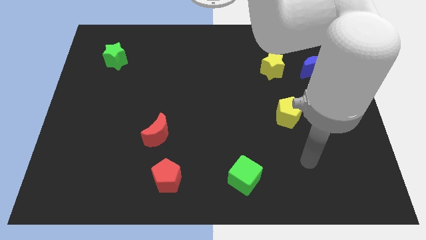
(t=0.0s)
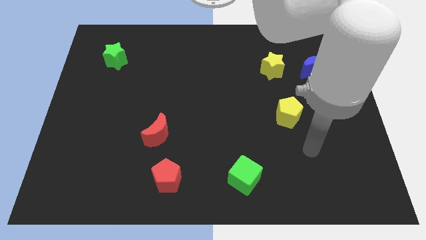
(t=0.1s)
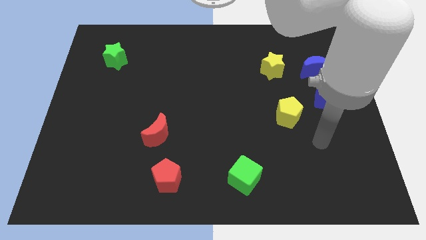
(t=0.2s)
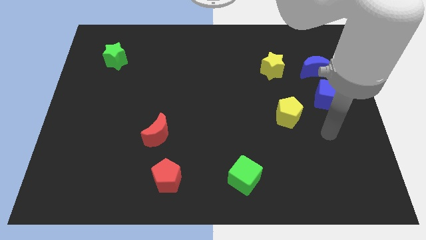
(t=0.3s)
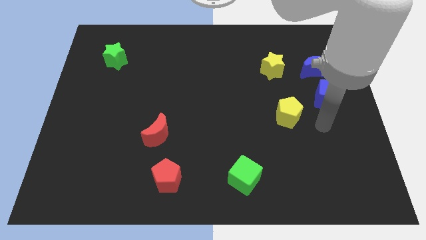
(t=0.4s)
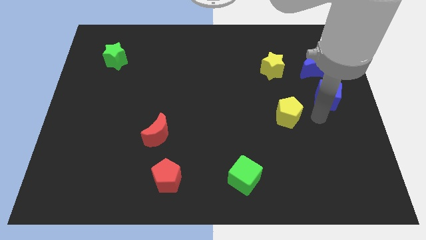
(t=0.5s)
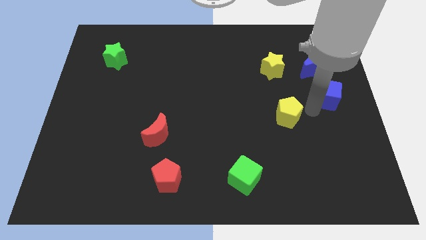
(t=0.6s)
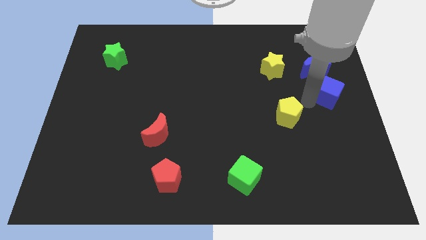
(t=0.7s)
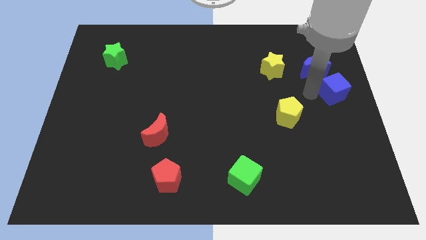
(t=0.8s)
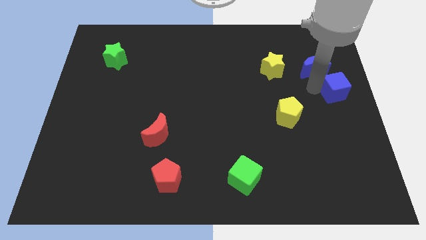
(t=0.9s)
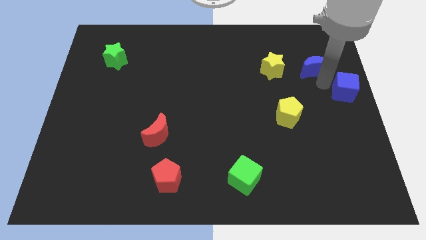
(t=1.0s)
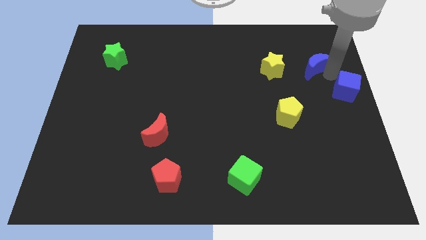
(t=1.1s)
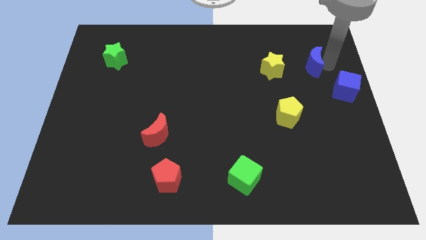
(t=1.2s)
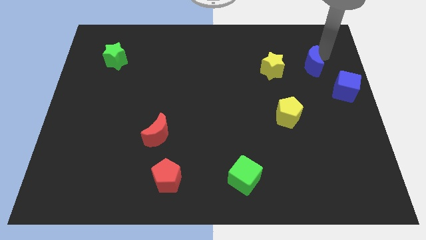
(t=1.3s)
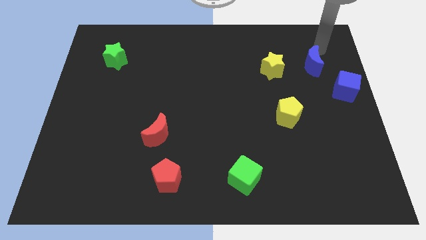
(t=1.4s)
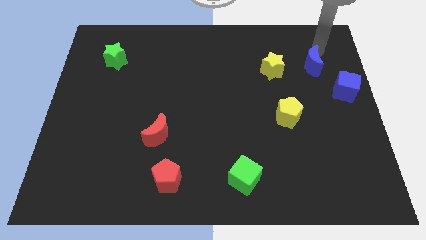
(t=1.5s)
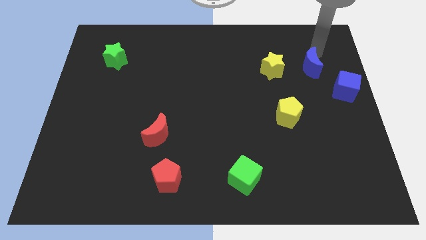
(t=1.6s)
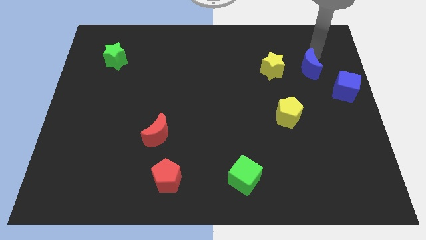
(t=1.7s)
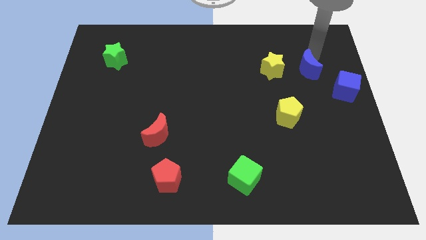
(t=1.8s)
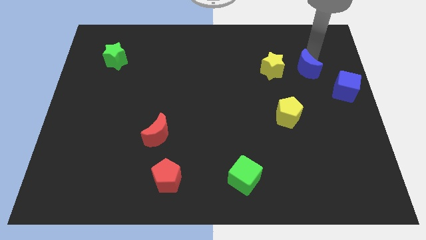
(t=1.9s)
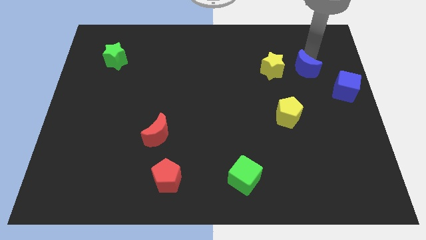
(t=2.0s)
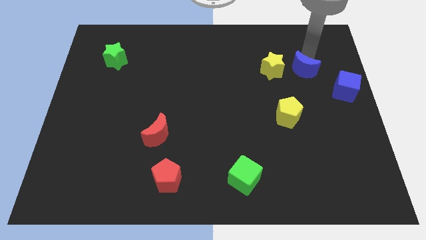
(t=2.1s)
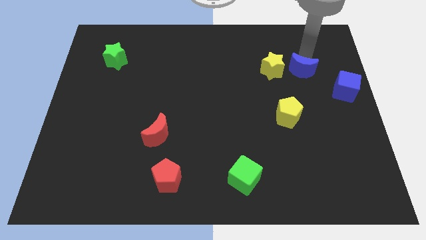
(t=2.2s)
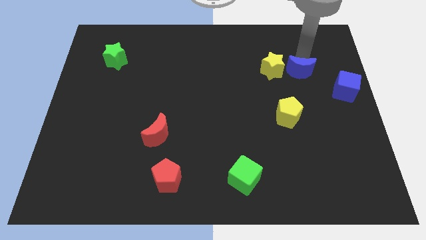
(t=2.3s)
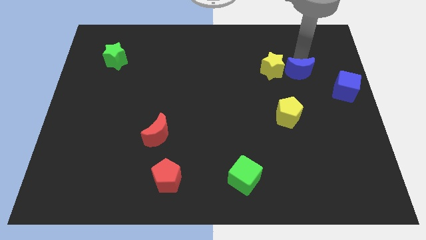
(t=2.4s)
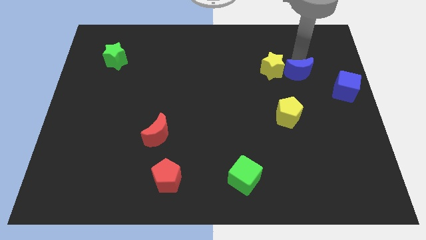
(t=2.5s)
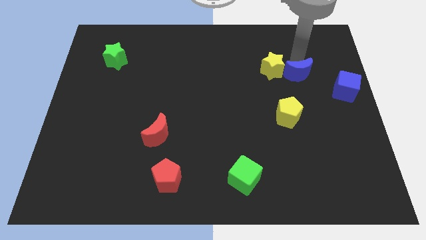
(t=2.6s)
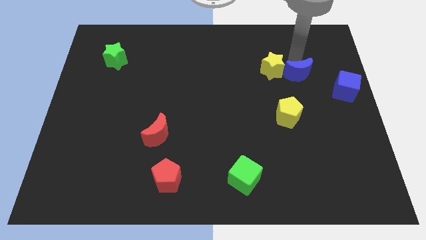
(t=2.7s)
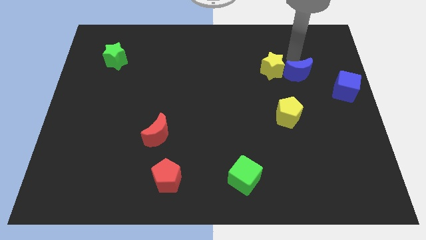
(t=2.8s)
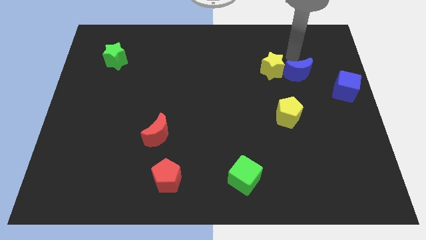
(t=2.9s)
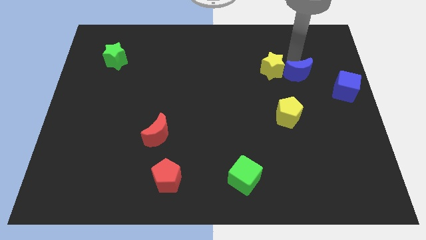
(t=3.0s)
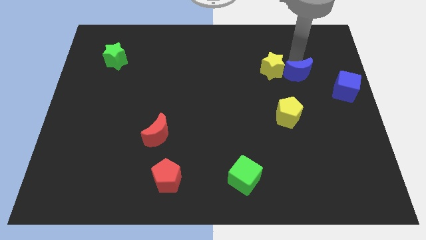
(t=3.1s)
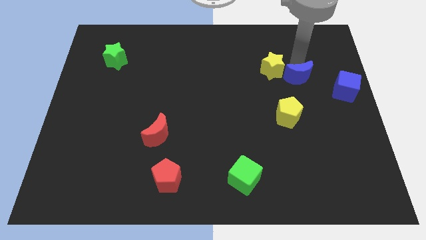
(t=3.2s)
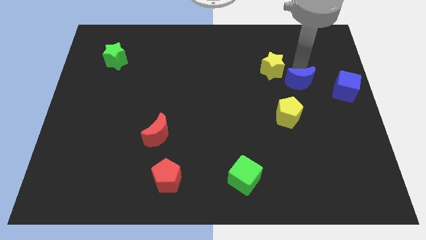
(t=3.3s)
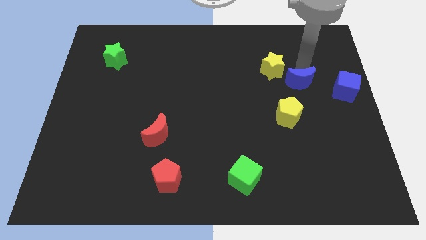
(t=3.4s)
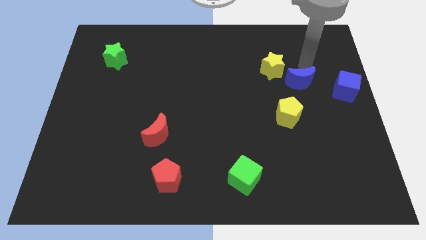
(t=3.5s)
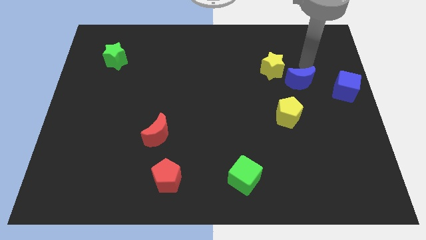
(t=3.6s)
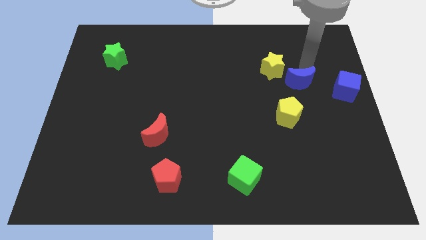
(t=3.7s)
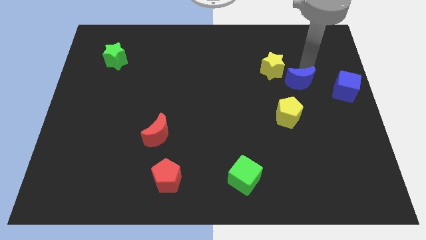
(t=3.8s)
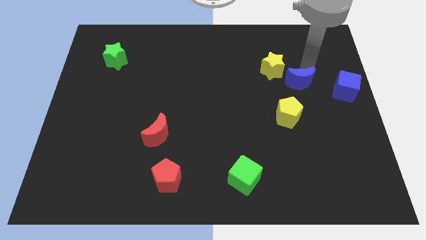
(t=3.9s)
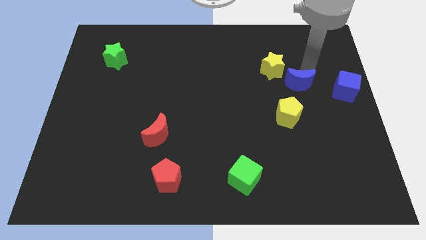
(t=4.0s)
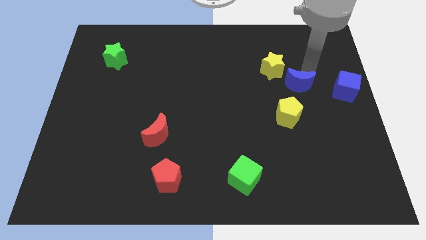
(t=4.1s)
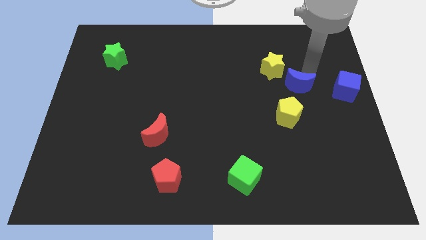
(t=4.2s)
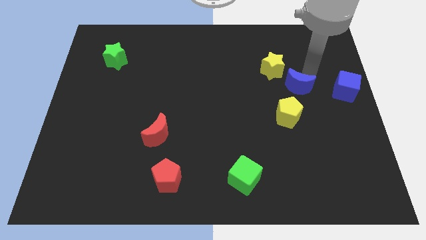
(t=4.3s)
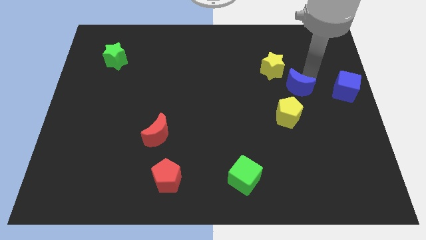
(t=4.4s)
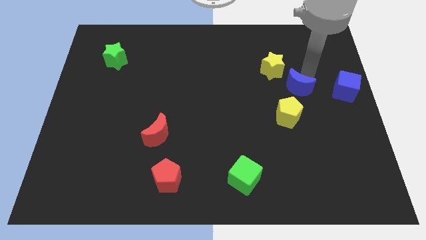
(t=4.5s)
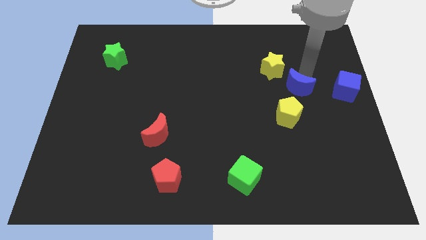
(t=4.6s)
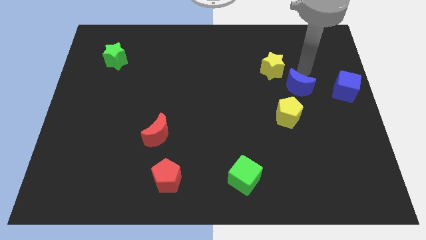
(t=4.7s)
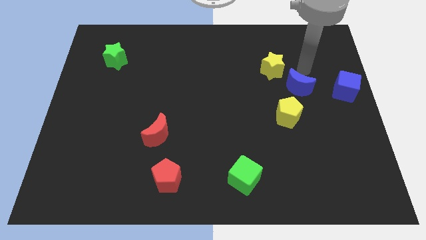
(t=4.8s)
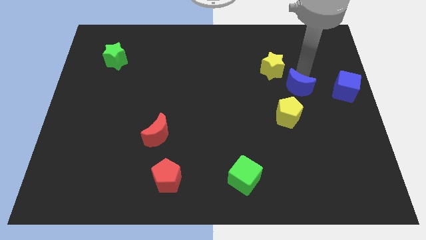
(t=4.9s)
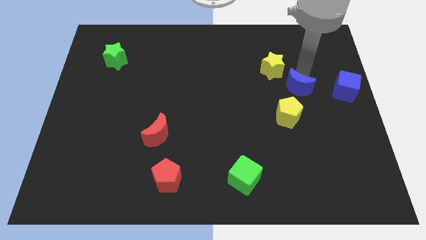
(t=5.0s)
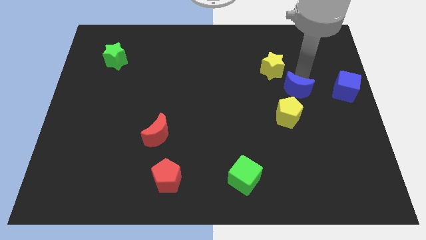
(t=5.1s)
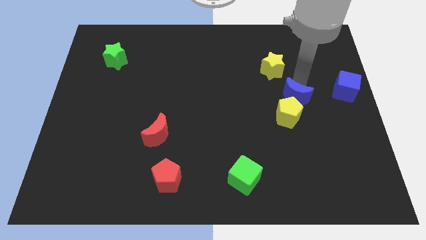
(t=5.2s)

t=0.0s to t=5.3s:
put the blue moon close to the yellow pentagon

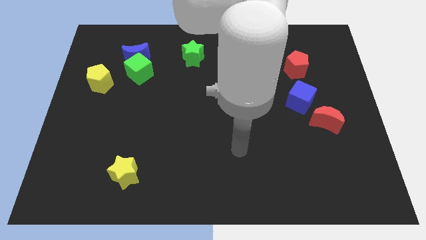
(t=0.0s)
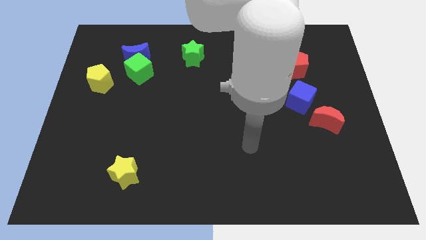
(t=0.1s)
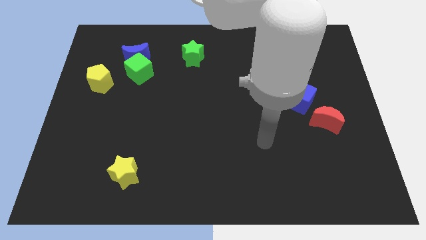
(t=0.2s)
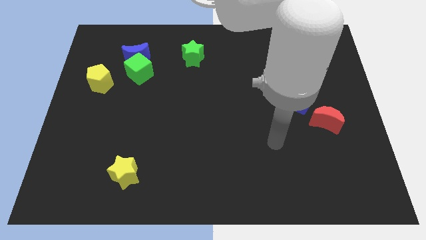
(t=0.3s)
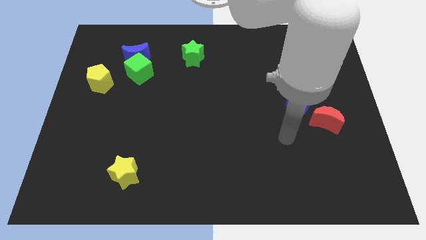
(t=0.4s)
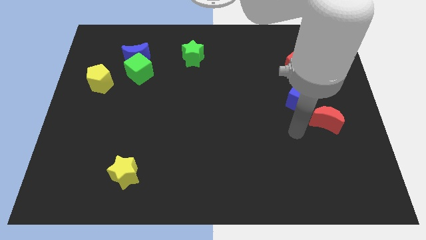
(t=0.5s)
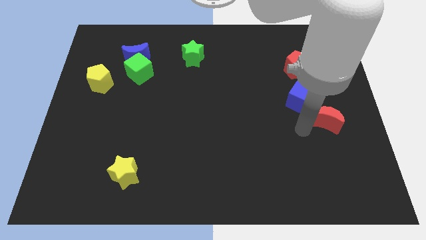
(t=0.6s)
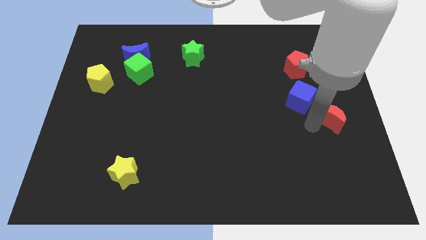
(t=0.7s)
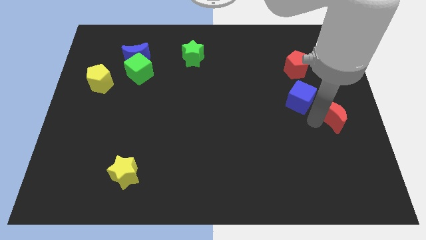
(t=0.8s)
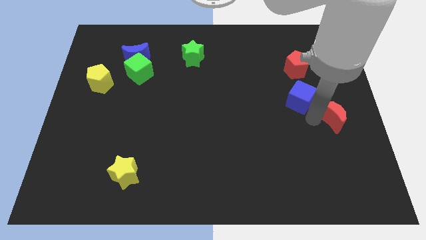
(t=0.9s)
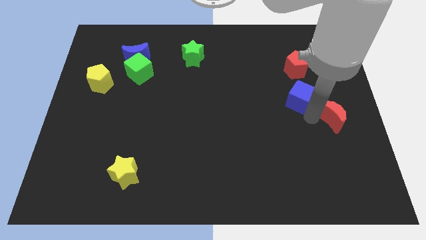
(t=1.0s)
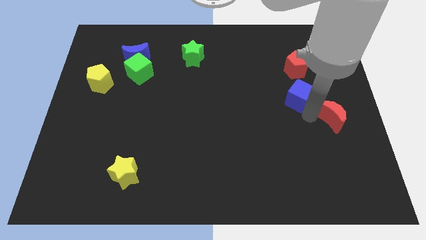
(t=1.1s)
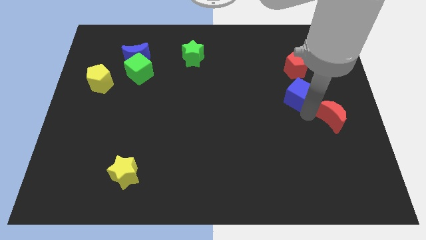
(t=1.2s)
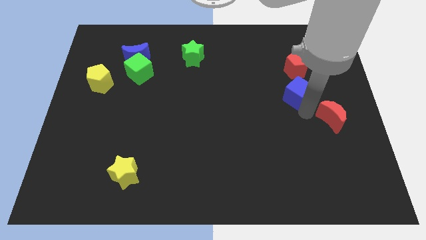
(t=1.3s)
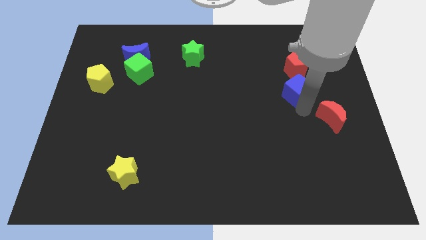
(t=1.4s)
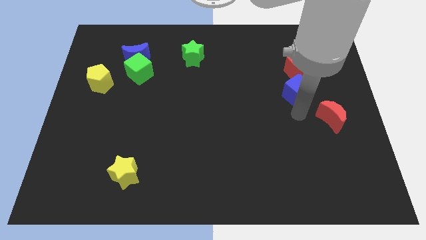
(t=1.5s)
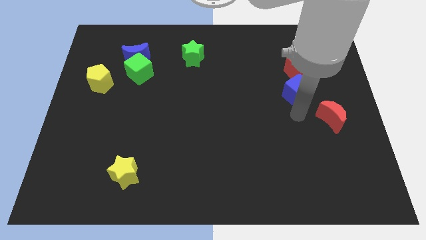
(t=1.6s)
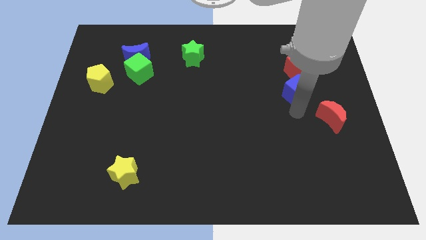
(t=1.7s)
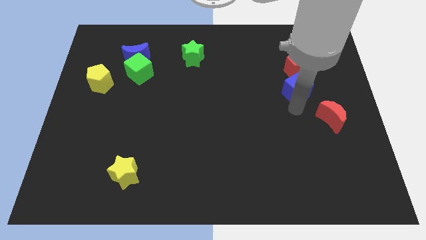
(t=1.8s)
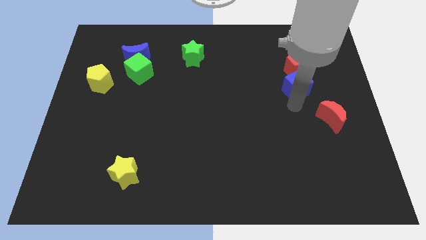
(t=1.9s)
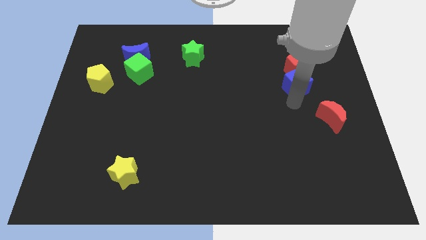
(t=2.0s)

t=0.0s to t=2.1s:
put the blue cube close to the red pentagon

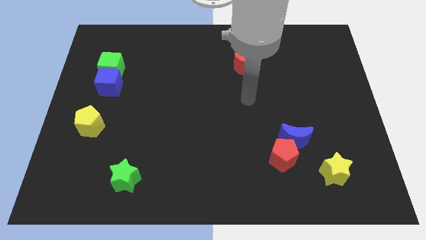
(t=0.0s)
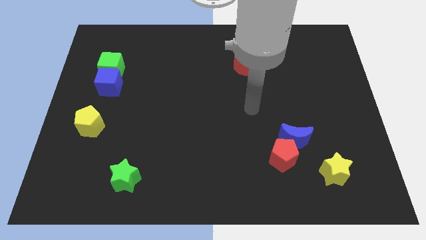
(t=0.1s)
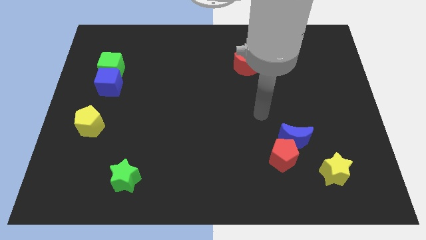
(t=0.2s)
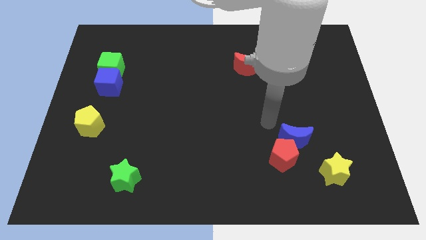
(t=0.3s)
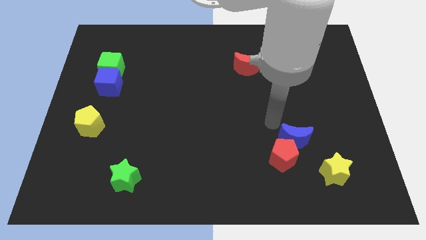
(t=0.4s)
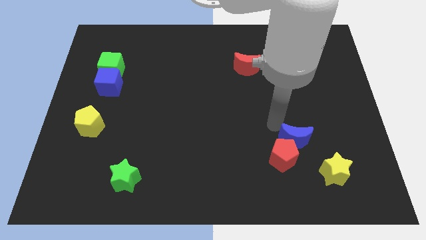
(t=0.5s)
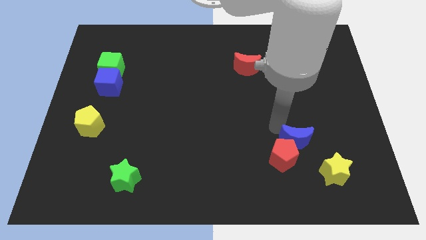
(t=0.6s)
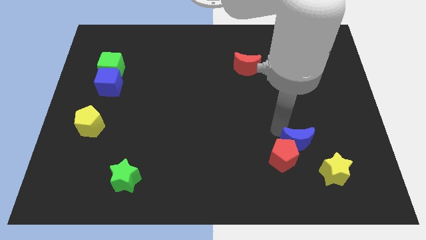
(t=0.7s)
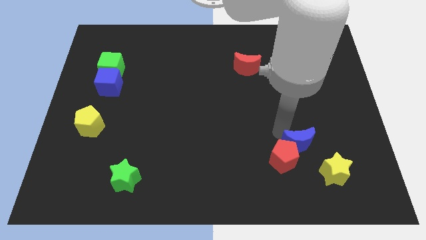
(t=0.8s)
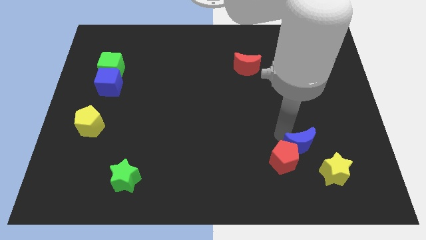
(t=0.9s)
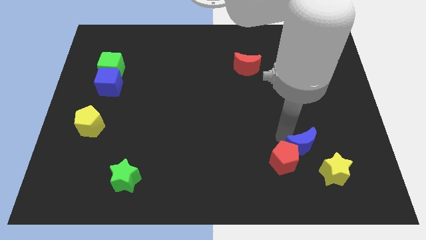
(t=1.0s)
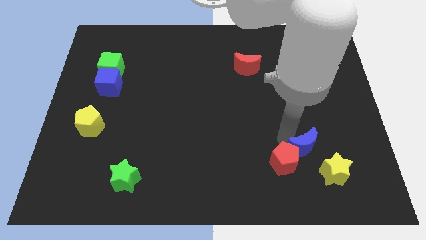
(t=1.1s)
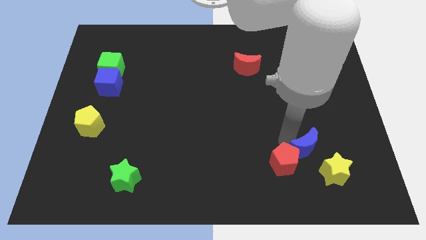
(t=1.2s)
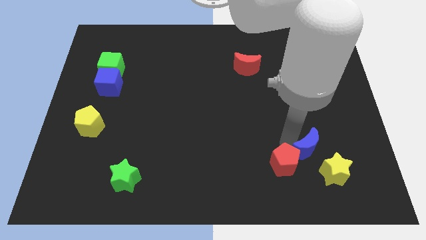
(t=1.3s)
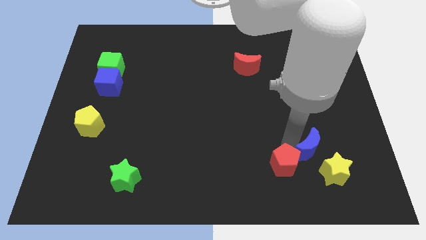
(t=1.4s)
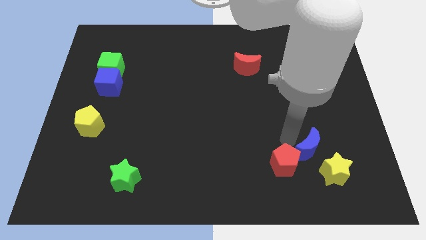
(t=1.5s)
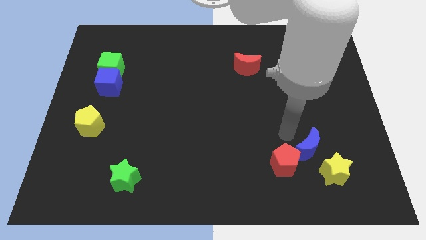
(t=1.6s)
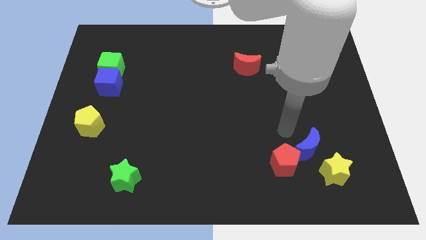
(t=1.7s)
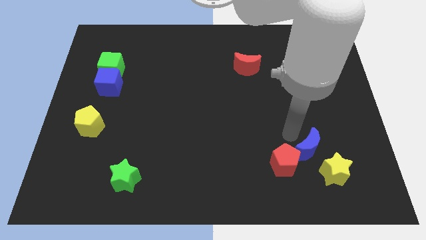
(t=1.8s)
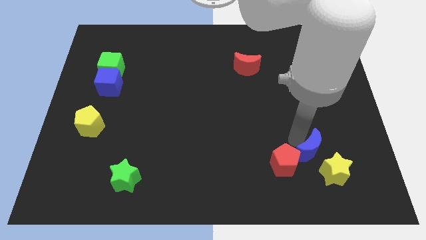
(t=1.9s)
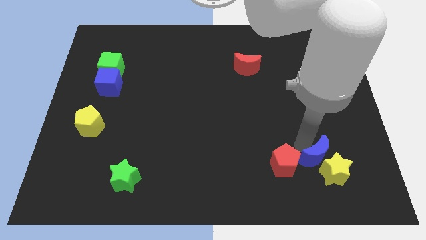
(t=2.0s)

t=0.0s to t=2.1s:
slide the blue moon close to the yellow star
